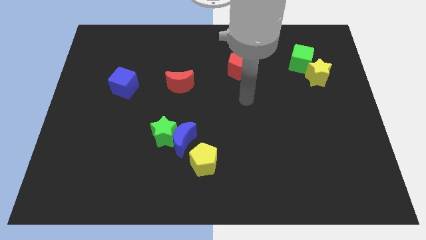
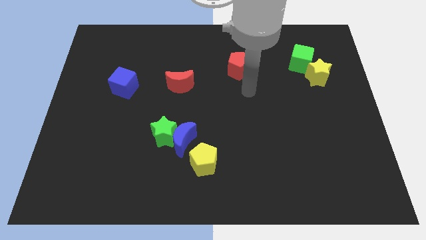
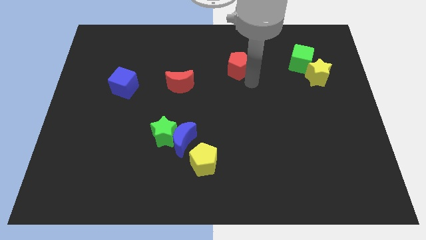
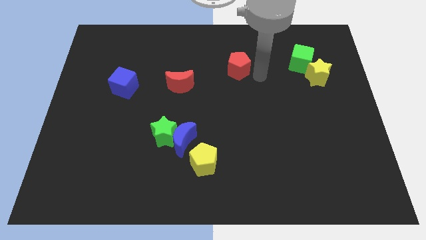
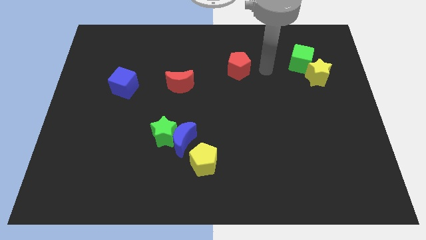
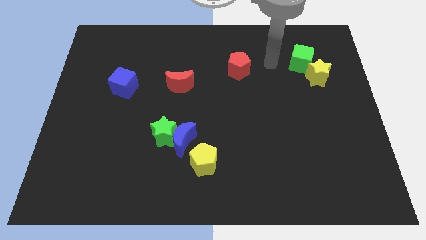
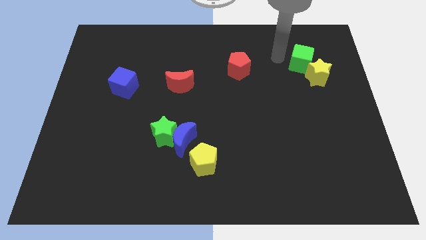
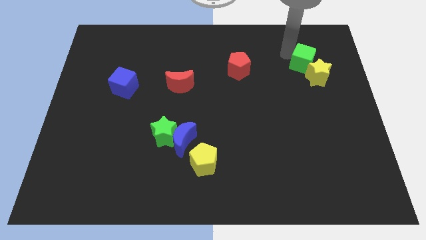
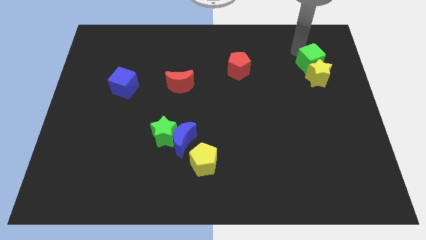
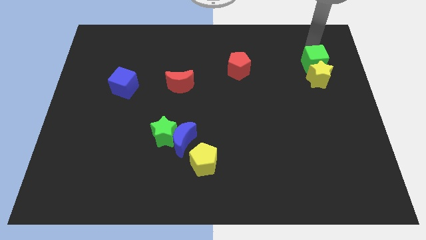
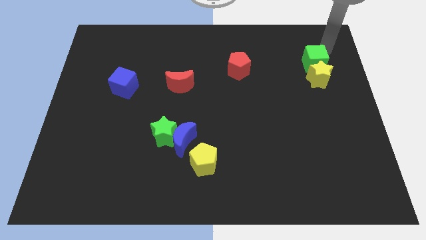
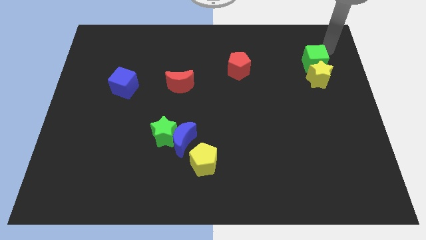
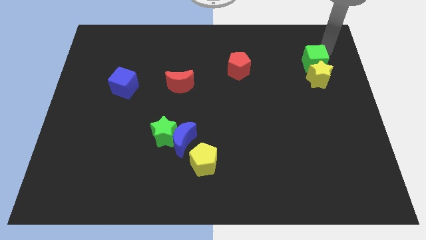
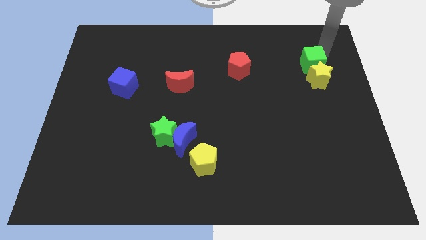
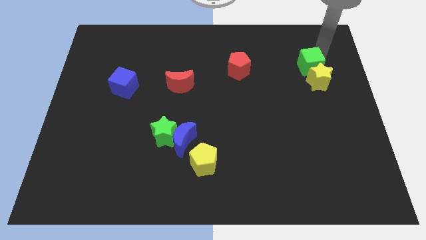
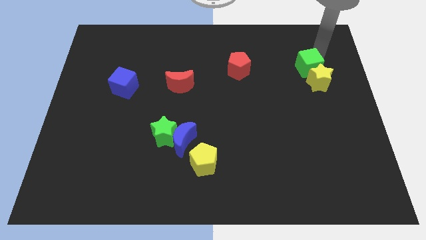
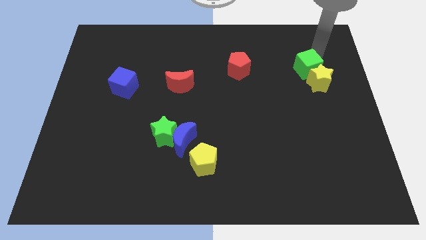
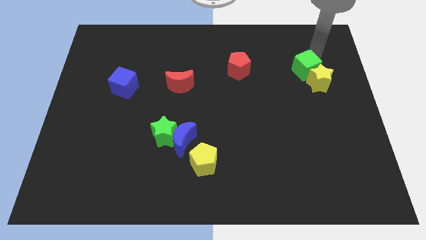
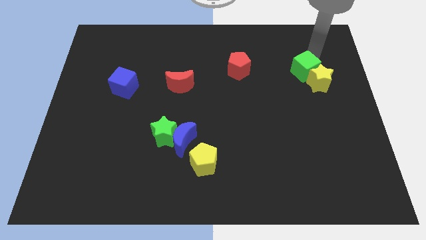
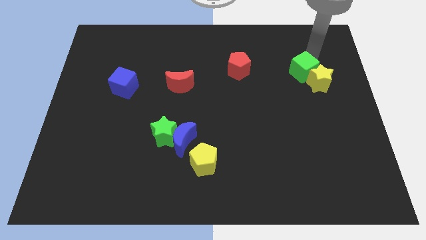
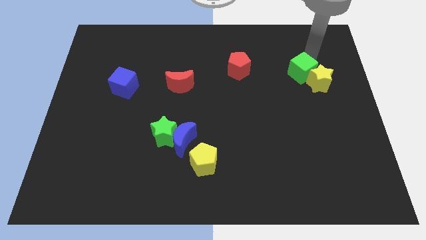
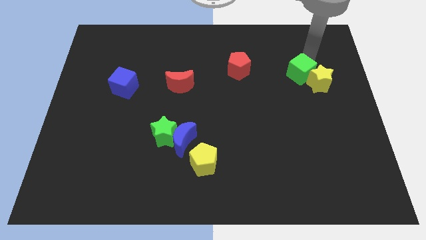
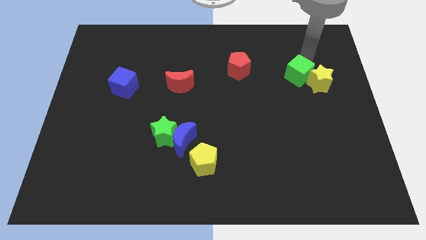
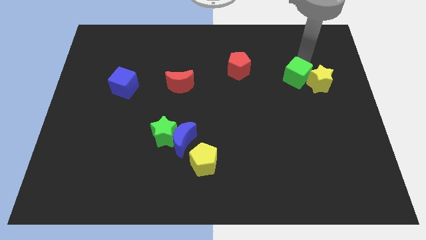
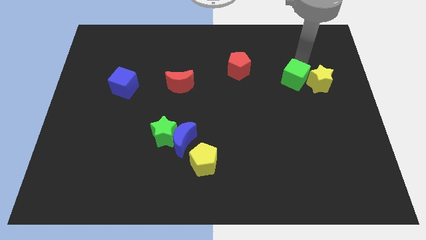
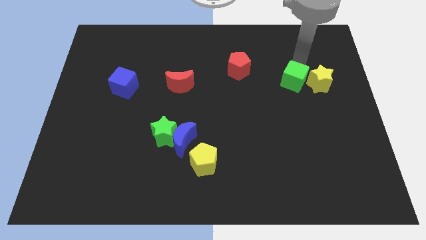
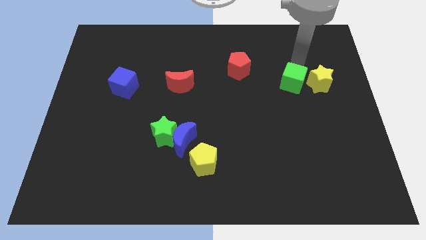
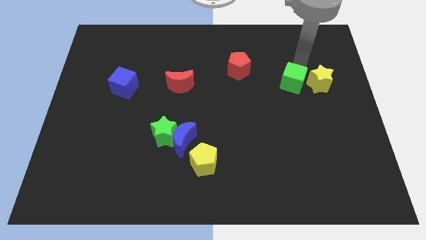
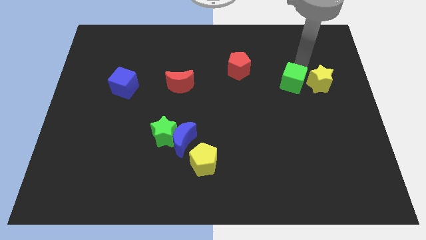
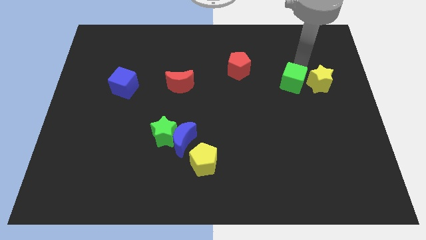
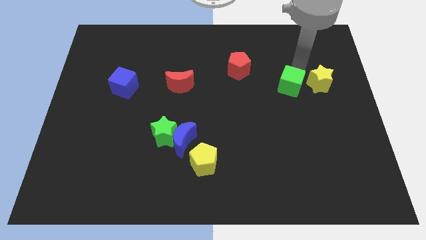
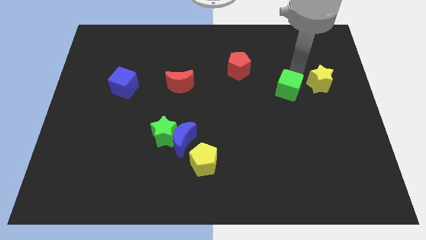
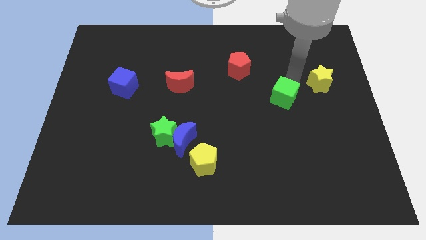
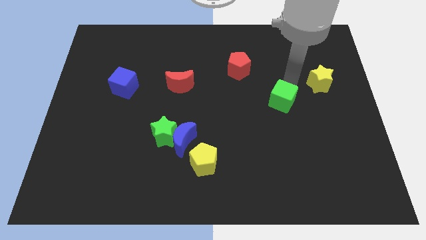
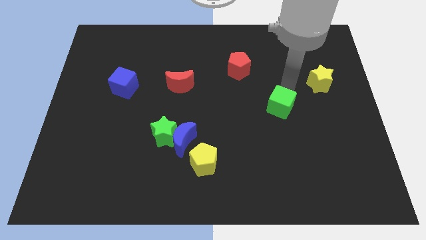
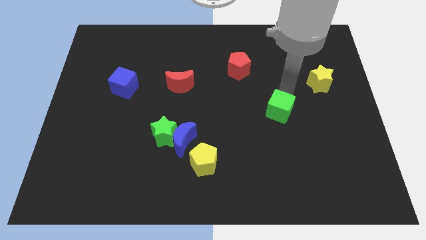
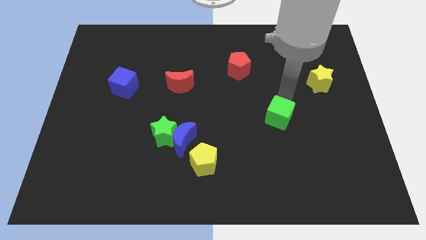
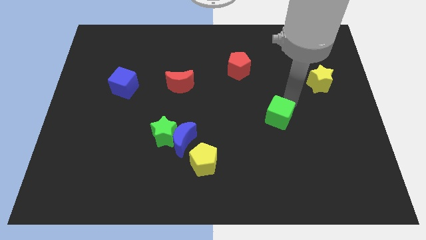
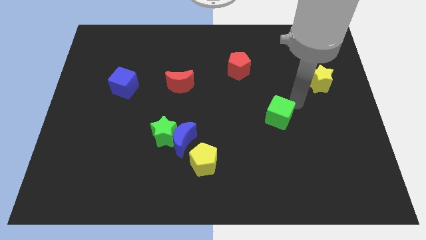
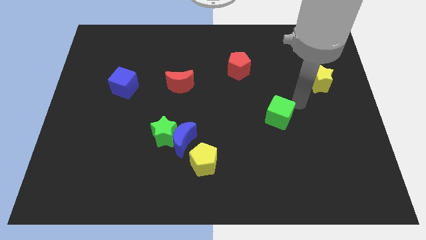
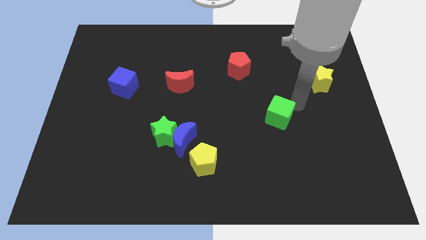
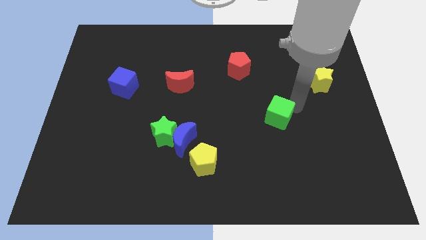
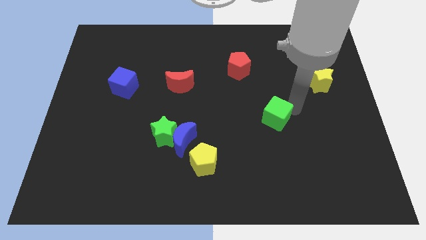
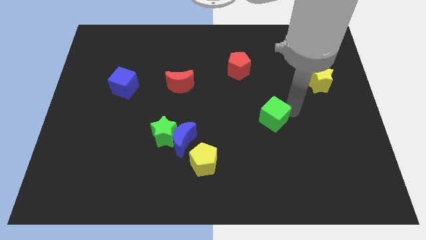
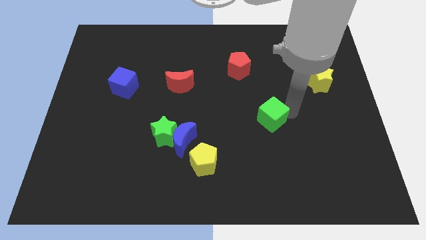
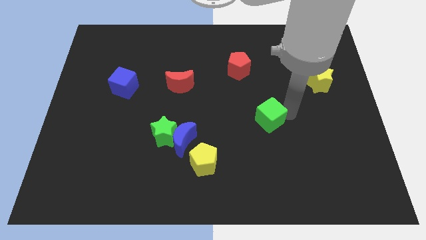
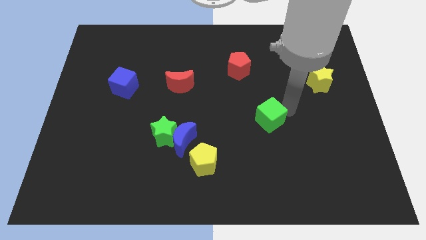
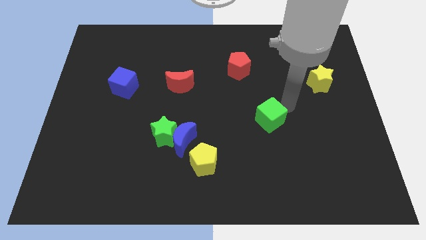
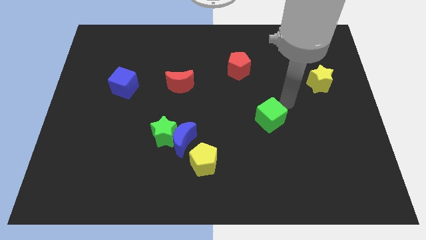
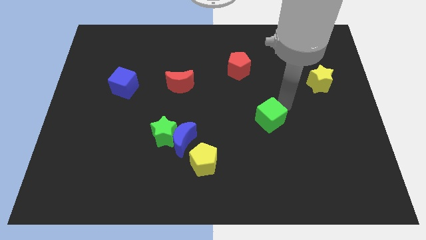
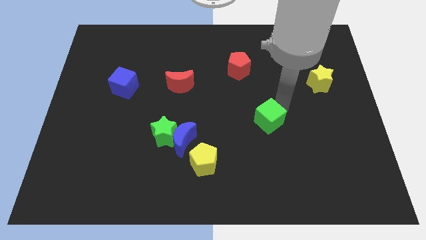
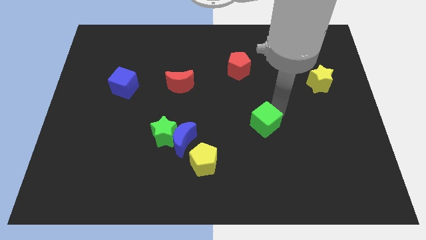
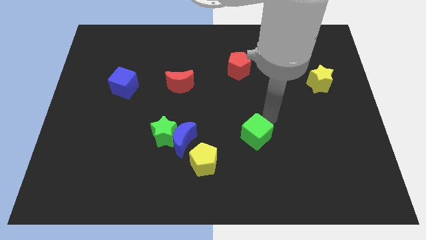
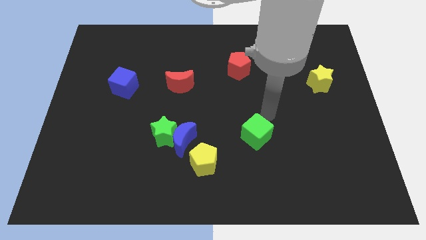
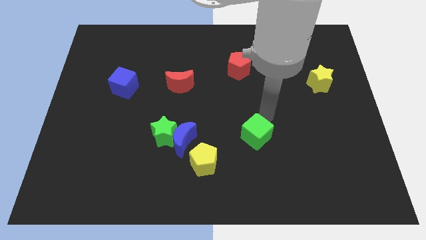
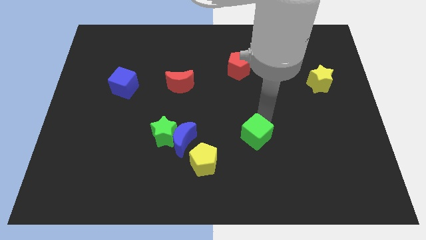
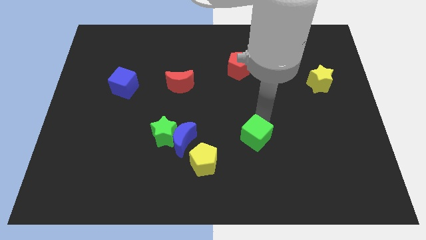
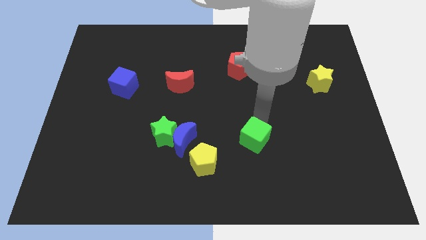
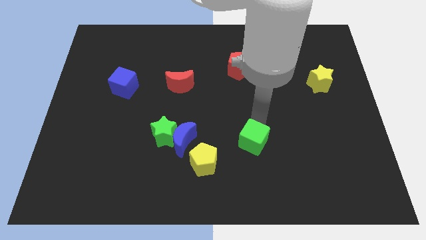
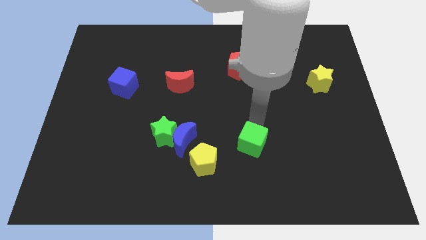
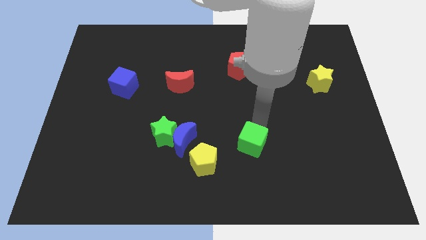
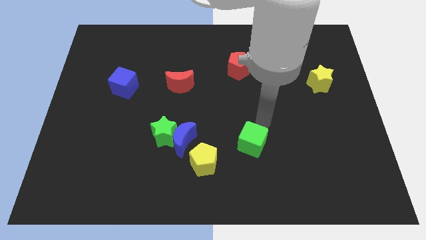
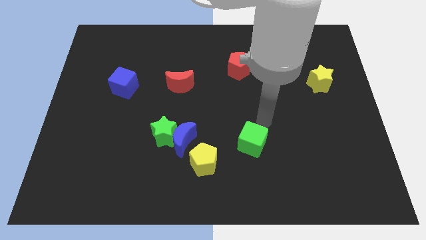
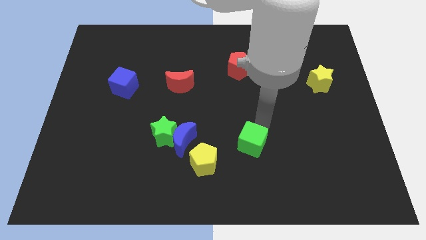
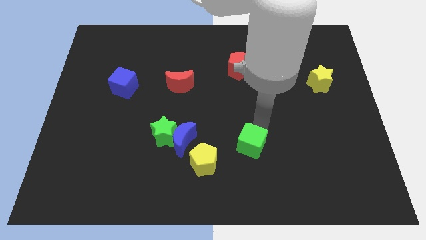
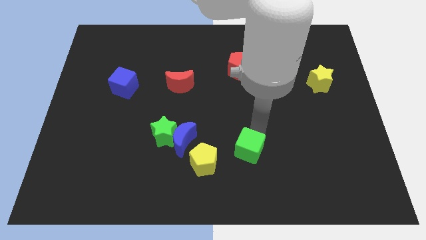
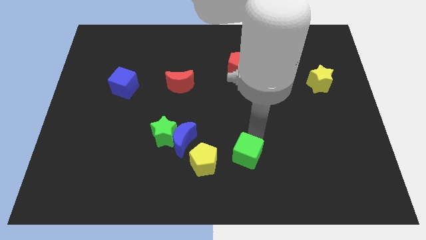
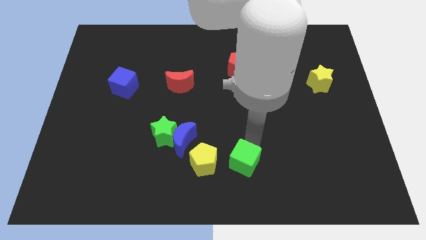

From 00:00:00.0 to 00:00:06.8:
slide the green cube to the bottom side
